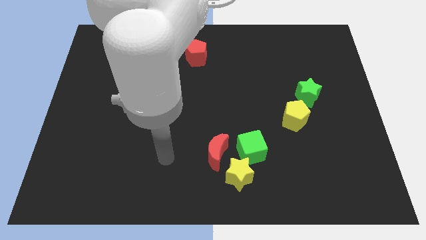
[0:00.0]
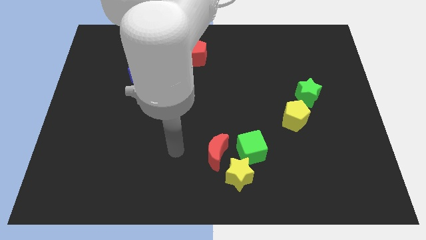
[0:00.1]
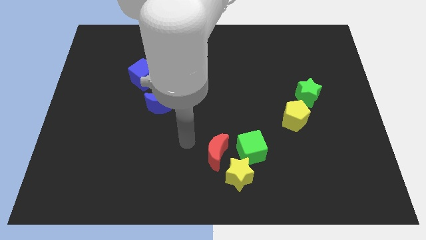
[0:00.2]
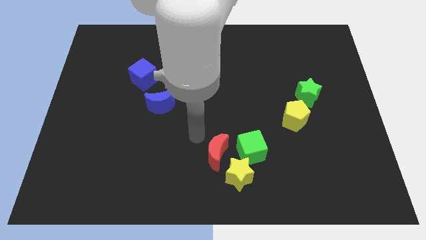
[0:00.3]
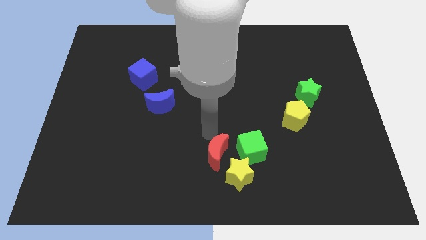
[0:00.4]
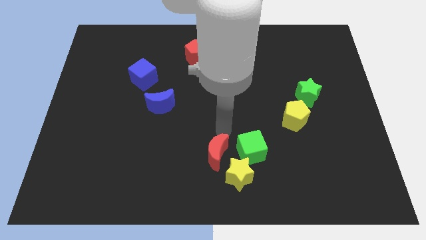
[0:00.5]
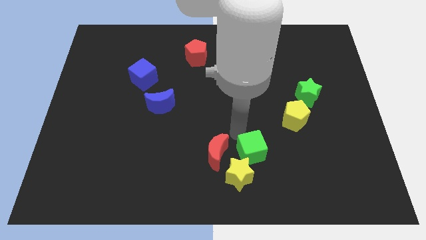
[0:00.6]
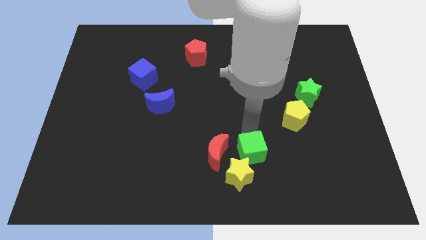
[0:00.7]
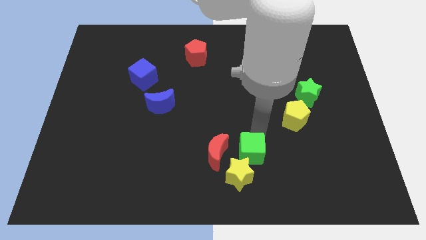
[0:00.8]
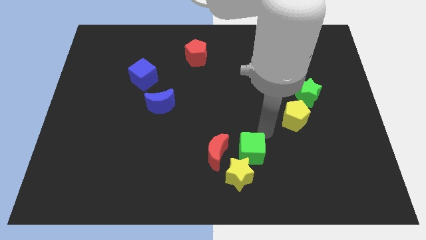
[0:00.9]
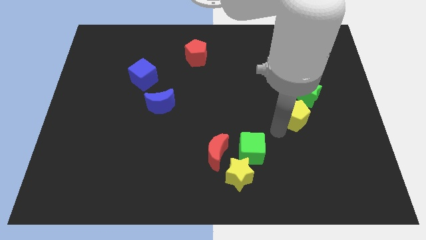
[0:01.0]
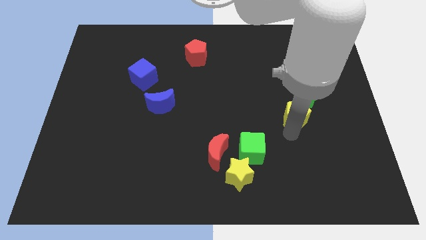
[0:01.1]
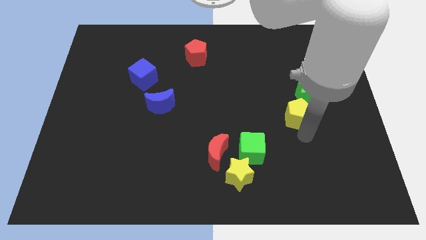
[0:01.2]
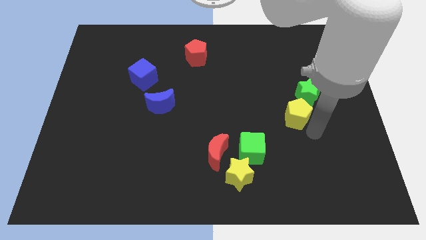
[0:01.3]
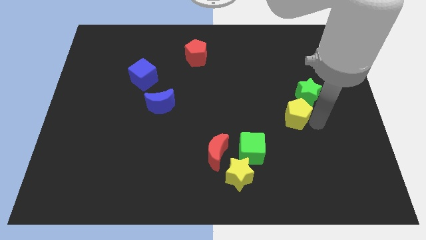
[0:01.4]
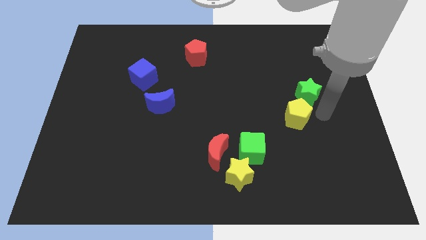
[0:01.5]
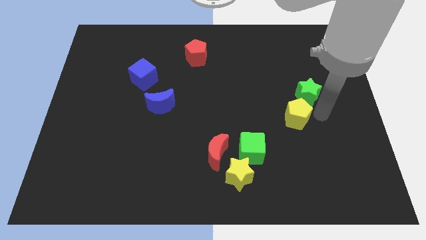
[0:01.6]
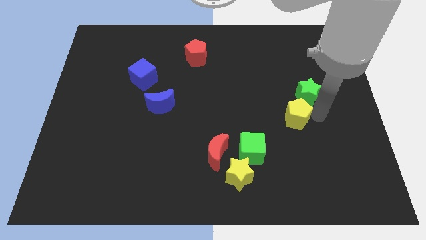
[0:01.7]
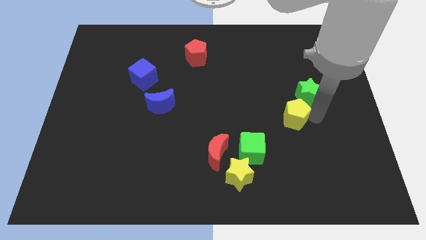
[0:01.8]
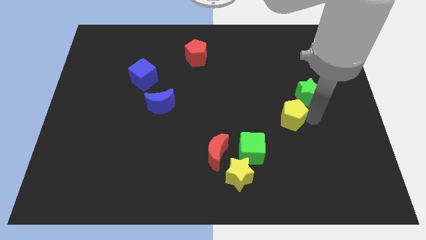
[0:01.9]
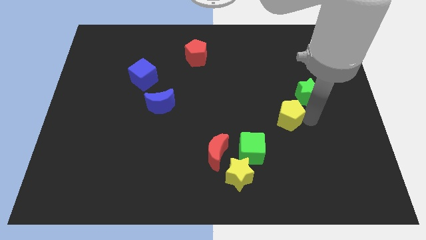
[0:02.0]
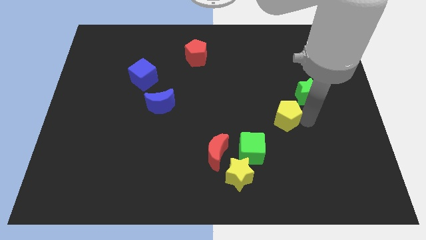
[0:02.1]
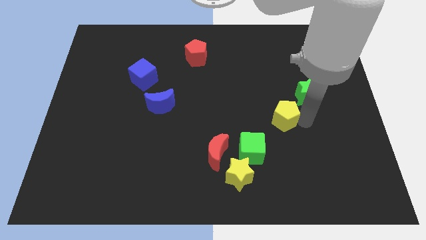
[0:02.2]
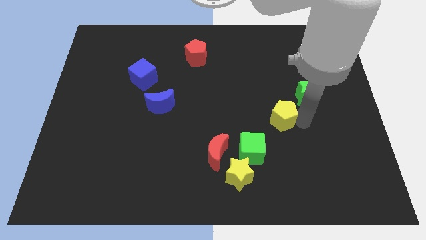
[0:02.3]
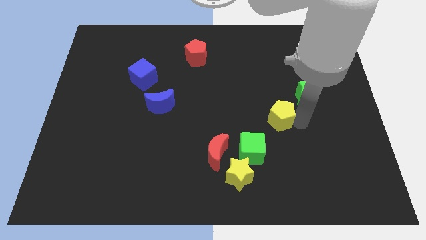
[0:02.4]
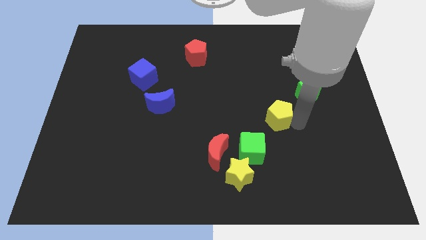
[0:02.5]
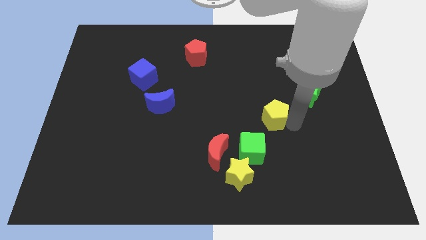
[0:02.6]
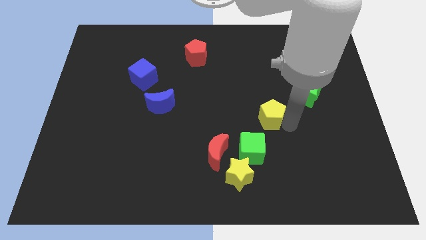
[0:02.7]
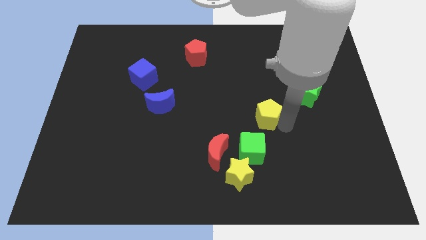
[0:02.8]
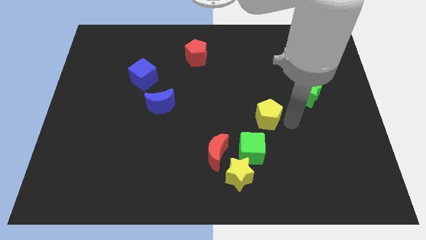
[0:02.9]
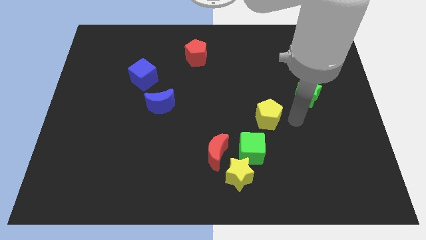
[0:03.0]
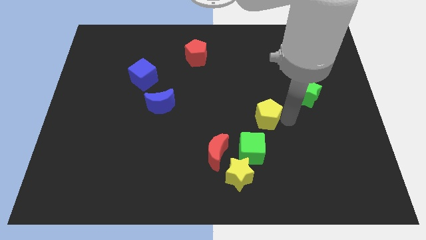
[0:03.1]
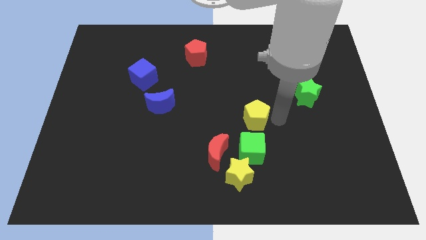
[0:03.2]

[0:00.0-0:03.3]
push the yellow pentagon slightly to the left

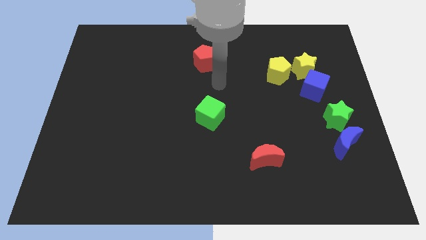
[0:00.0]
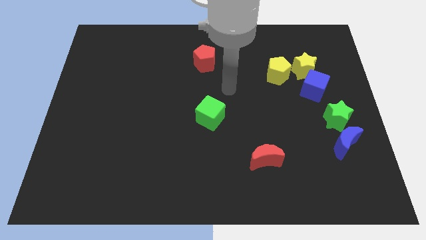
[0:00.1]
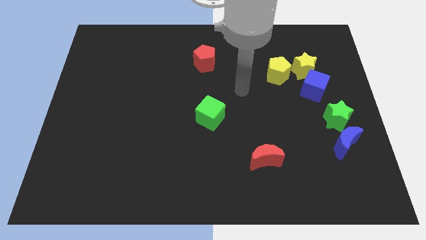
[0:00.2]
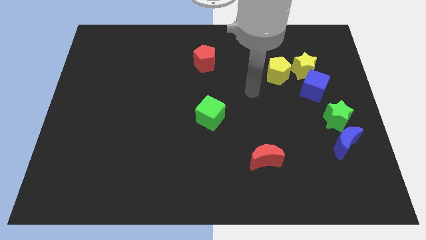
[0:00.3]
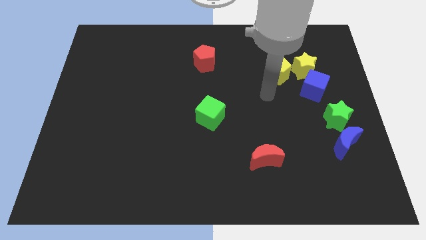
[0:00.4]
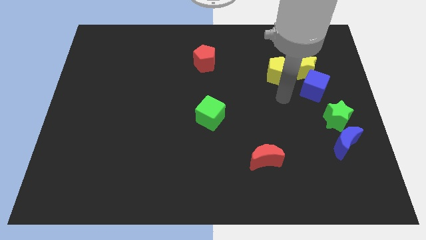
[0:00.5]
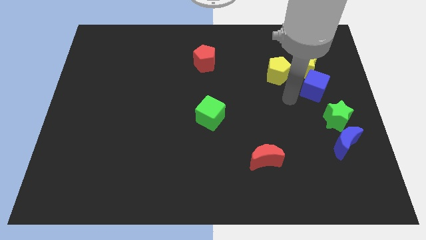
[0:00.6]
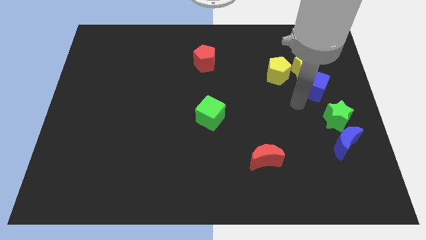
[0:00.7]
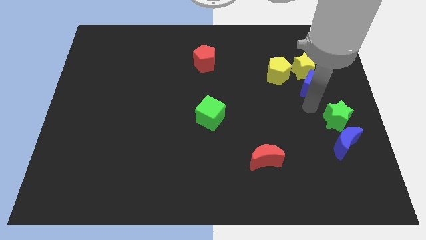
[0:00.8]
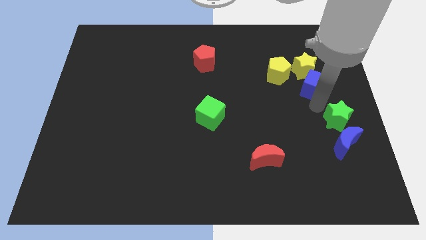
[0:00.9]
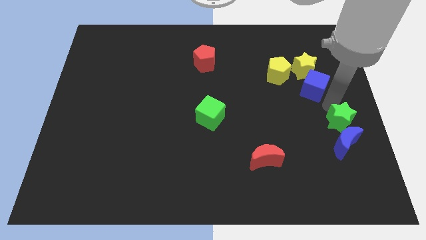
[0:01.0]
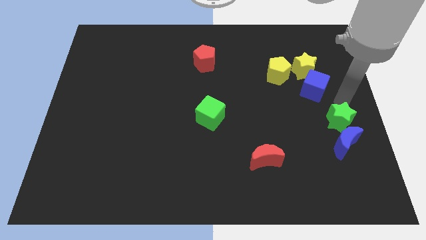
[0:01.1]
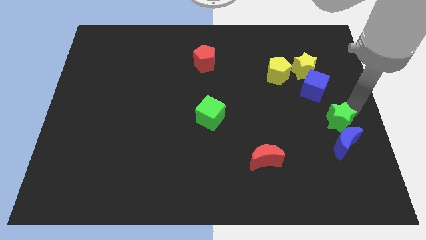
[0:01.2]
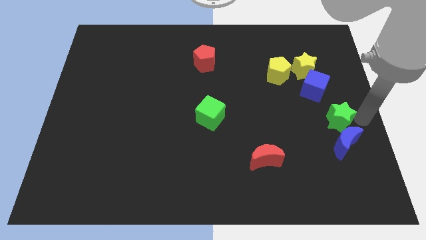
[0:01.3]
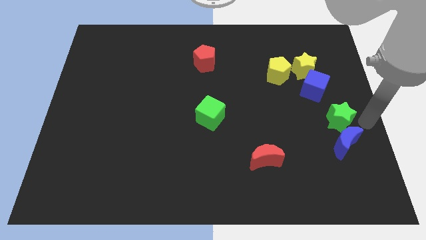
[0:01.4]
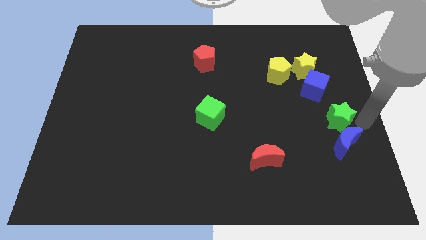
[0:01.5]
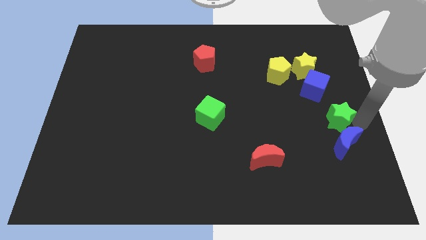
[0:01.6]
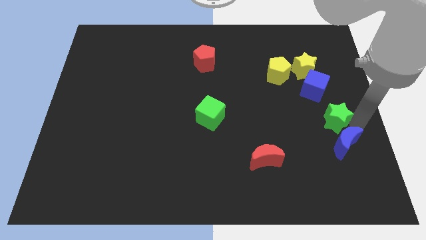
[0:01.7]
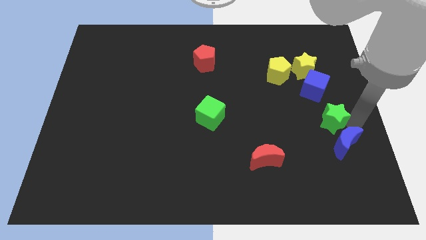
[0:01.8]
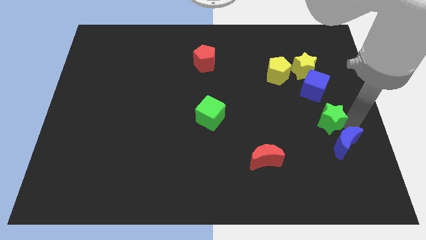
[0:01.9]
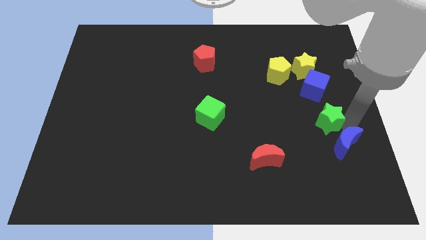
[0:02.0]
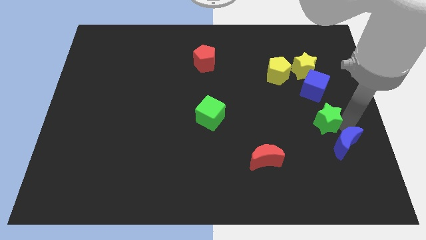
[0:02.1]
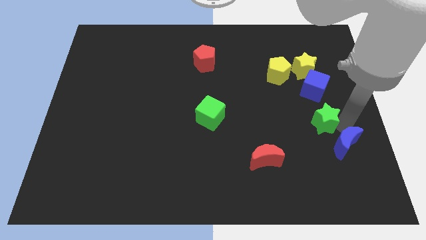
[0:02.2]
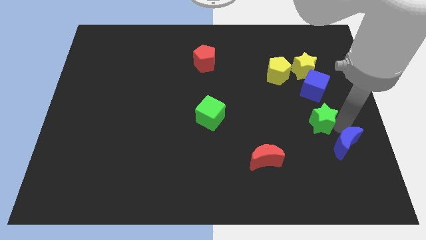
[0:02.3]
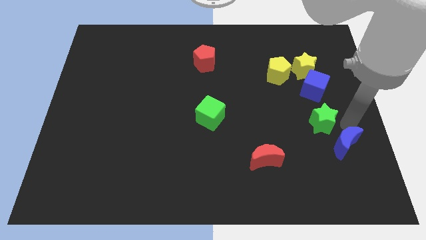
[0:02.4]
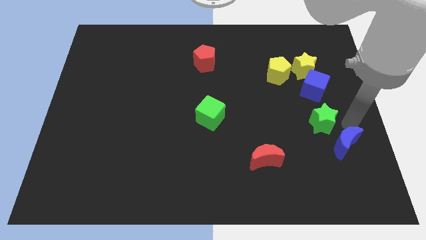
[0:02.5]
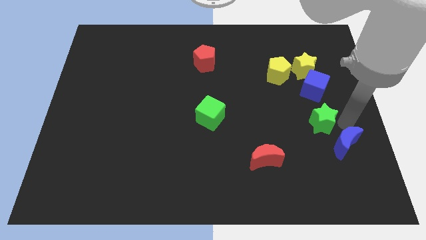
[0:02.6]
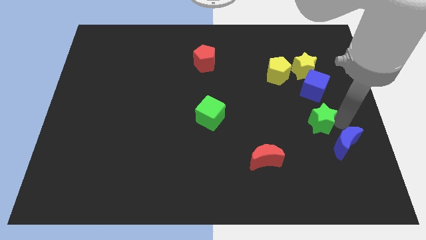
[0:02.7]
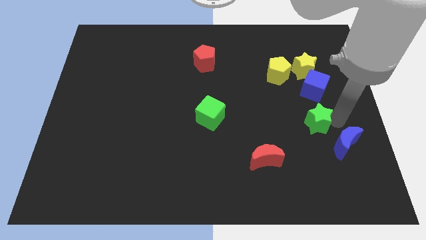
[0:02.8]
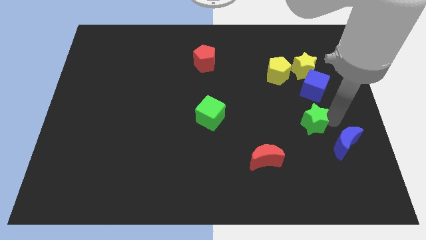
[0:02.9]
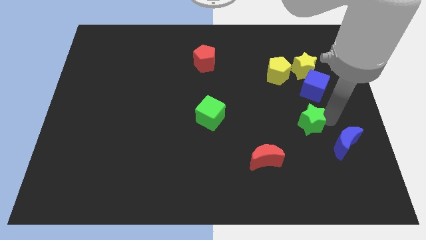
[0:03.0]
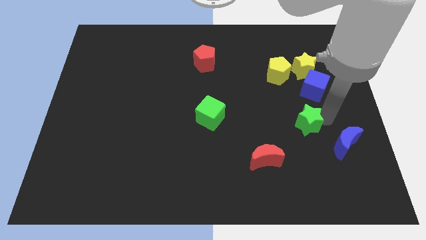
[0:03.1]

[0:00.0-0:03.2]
slide the green star to the left slightly

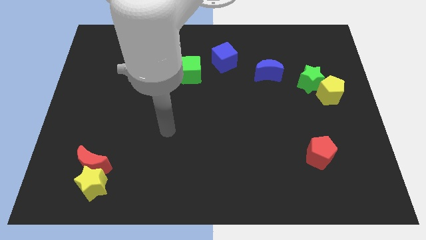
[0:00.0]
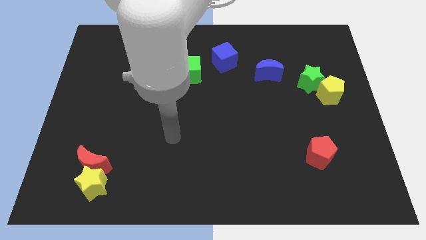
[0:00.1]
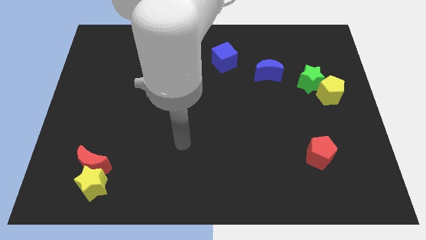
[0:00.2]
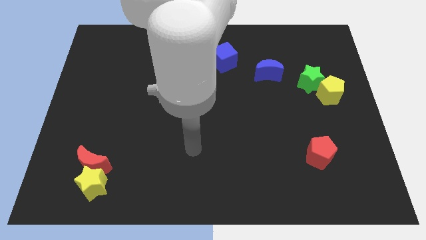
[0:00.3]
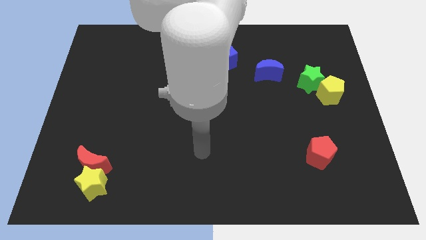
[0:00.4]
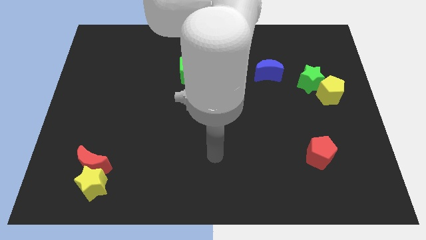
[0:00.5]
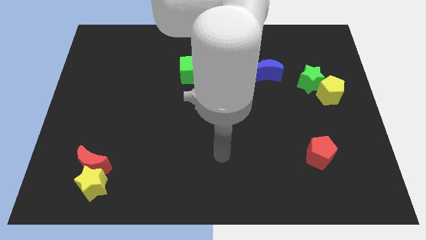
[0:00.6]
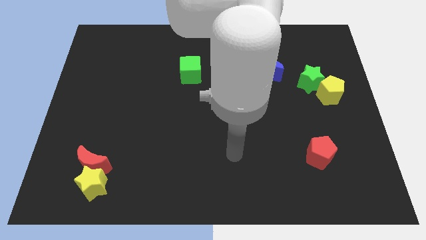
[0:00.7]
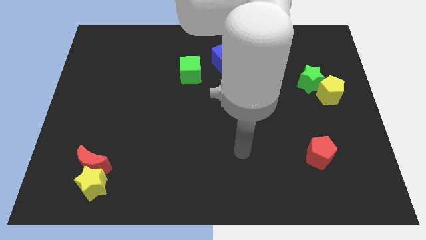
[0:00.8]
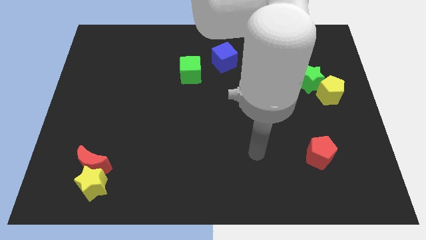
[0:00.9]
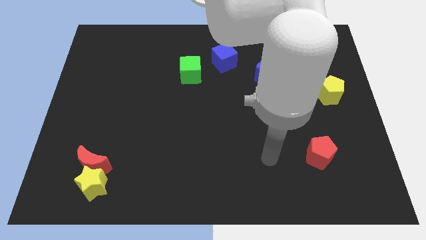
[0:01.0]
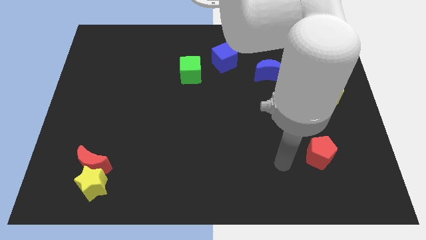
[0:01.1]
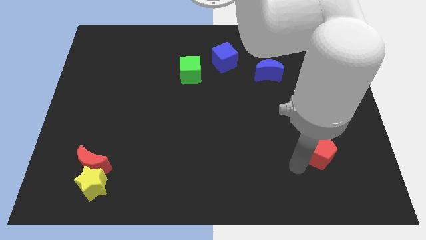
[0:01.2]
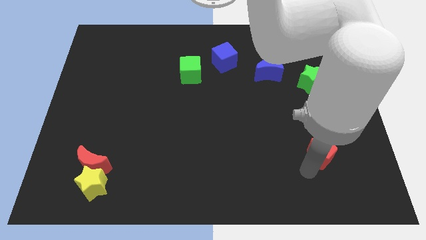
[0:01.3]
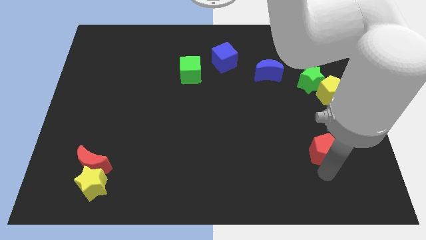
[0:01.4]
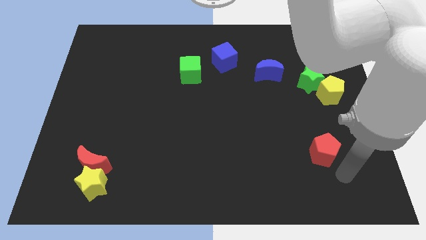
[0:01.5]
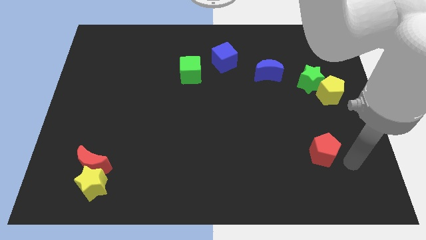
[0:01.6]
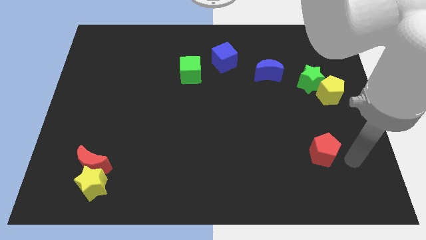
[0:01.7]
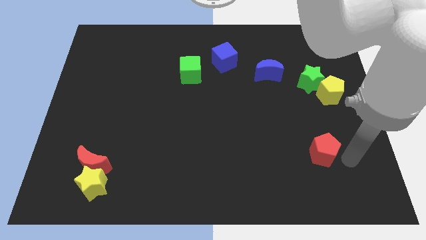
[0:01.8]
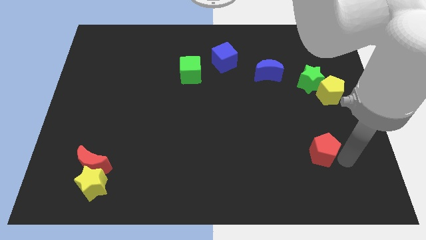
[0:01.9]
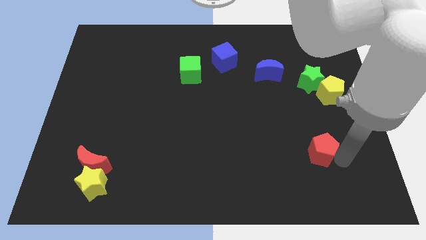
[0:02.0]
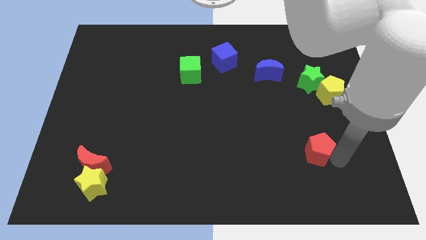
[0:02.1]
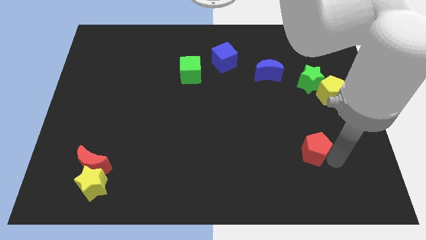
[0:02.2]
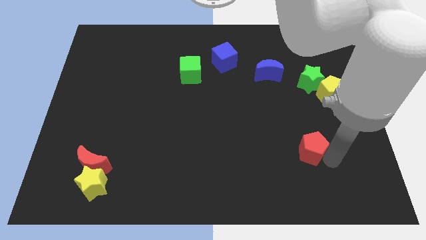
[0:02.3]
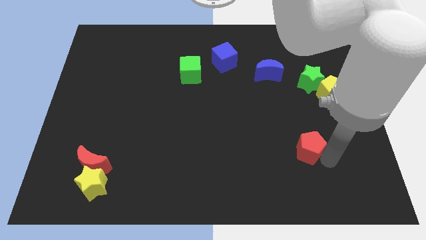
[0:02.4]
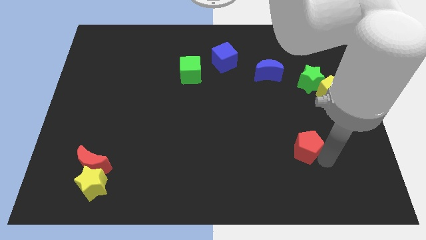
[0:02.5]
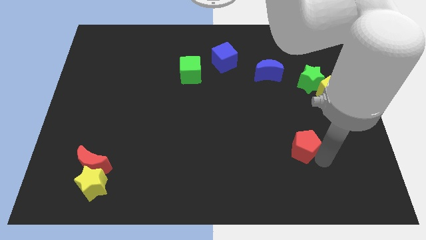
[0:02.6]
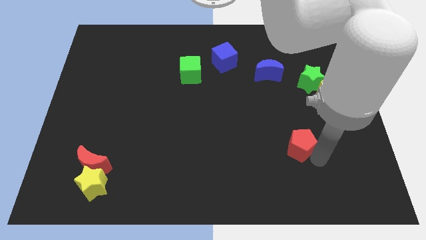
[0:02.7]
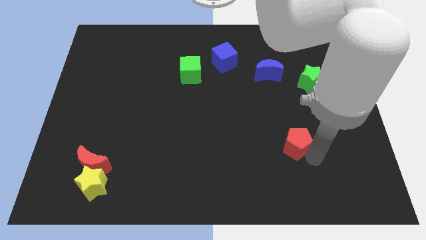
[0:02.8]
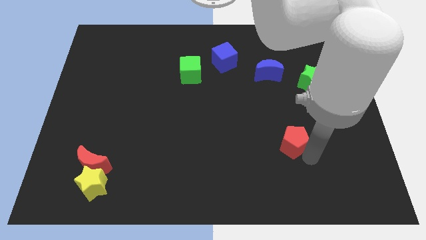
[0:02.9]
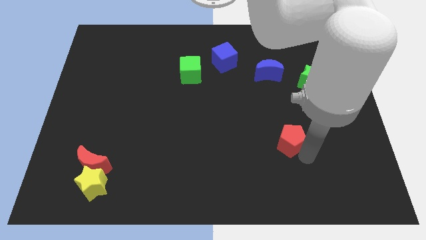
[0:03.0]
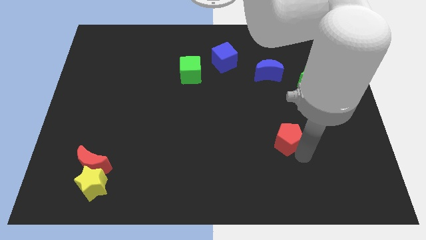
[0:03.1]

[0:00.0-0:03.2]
slightly move the red pentagon up and then to the left
